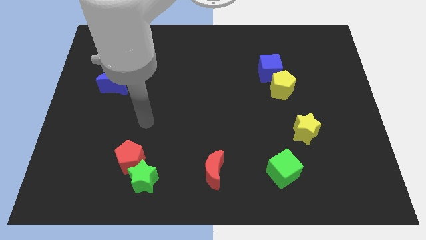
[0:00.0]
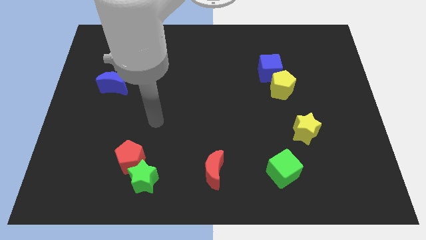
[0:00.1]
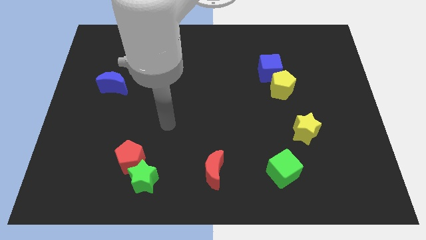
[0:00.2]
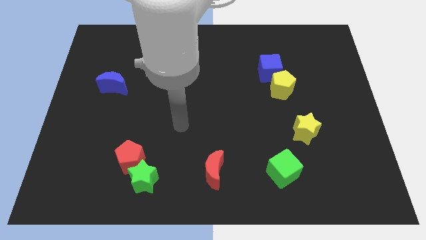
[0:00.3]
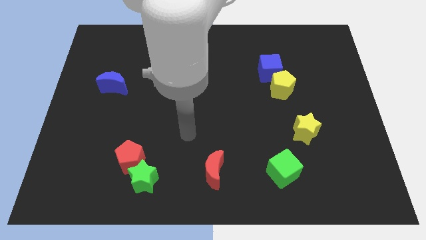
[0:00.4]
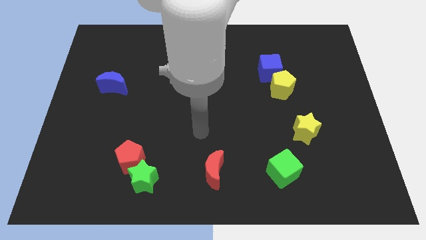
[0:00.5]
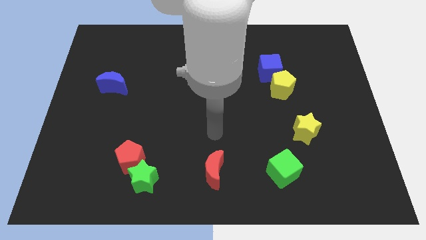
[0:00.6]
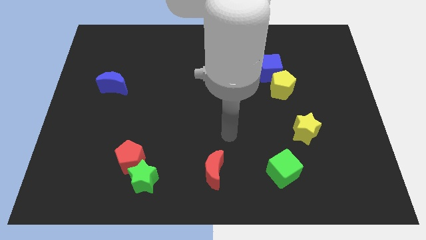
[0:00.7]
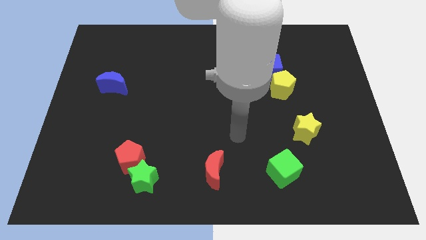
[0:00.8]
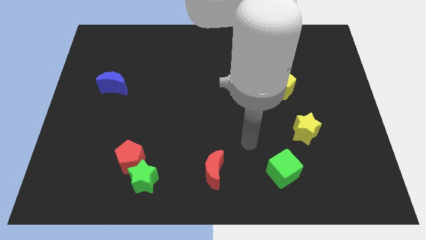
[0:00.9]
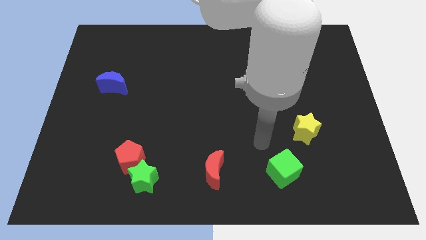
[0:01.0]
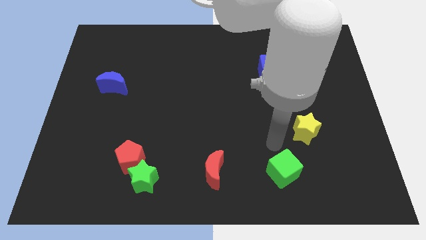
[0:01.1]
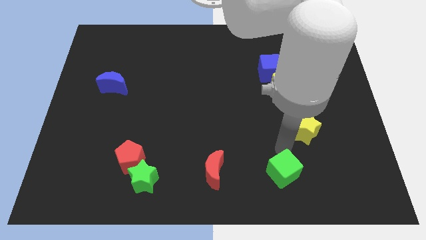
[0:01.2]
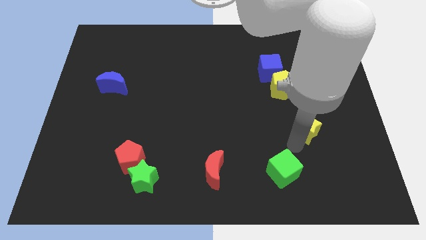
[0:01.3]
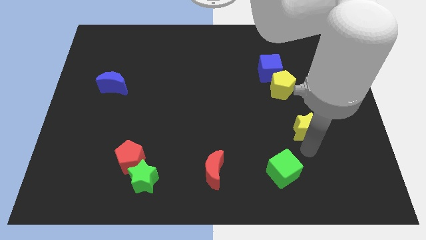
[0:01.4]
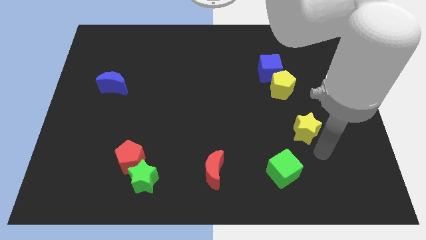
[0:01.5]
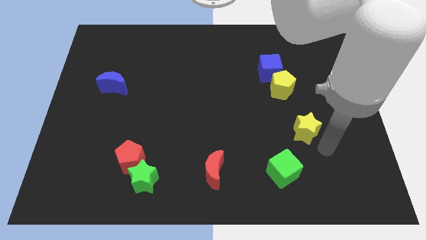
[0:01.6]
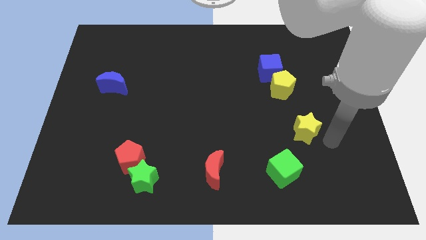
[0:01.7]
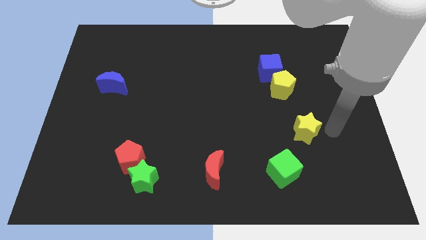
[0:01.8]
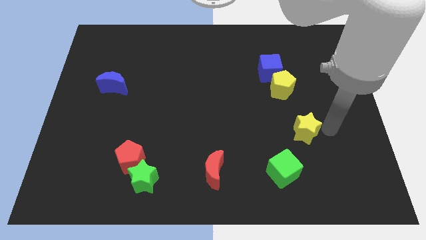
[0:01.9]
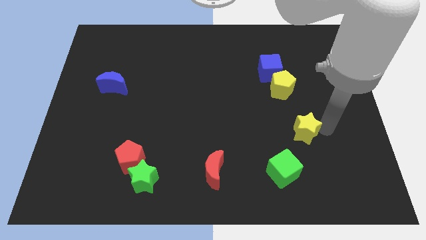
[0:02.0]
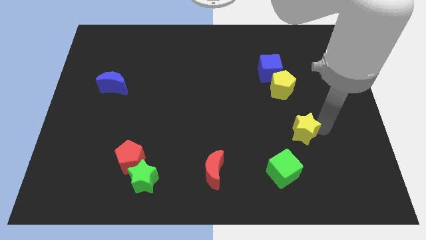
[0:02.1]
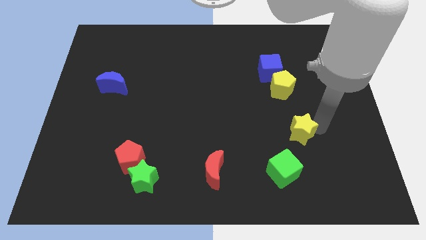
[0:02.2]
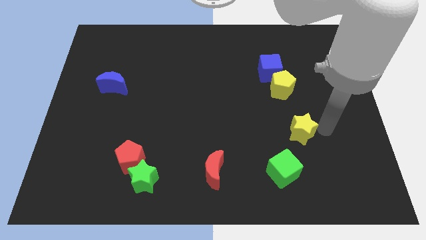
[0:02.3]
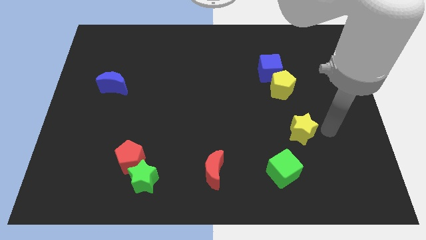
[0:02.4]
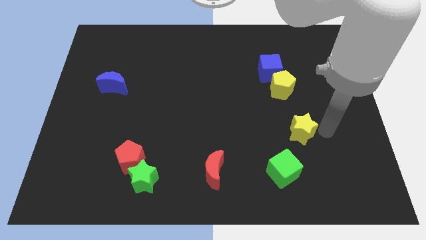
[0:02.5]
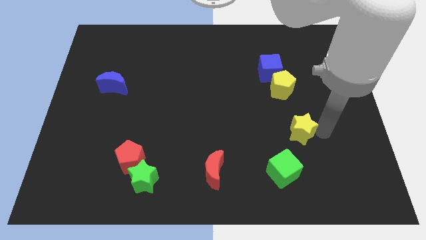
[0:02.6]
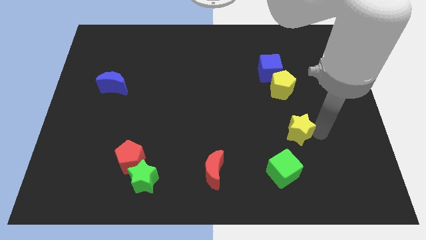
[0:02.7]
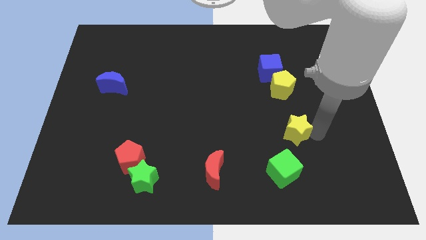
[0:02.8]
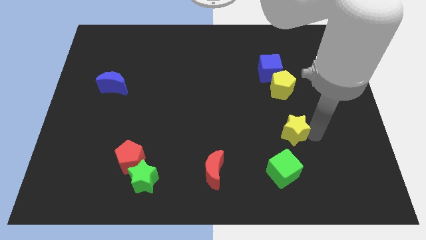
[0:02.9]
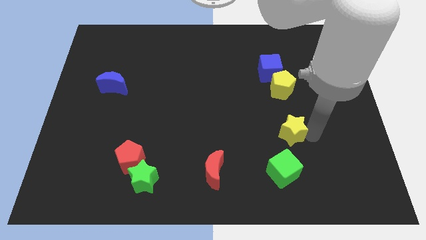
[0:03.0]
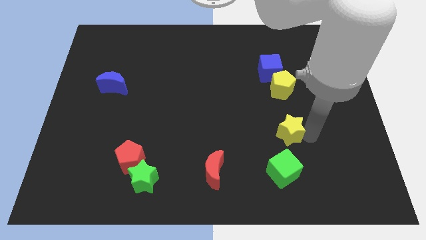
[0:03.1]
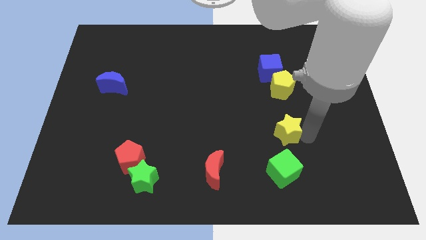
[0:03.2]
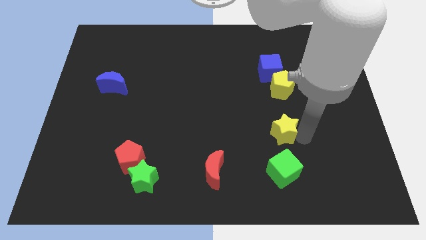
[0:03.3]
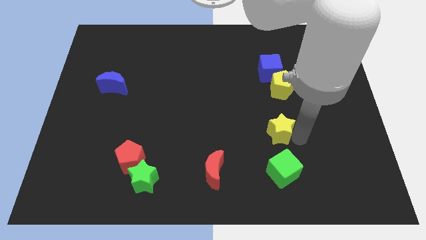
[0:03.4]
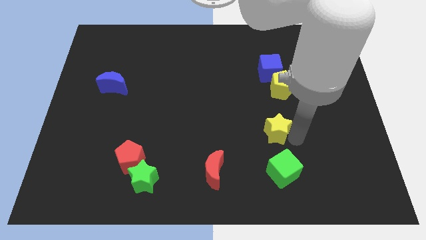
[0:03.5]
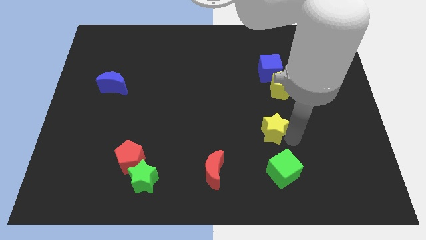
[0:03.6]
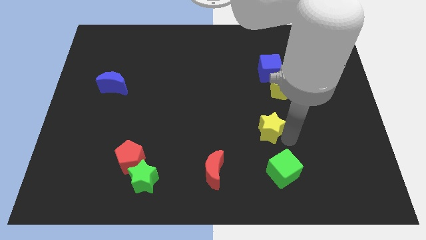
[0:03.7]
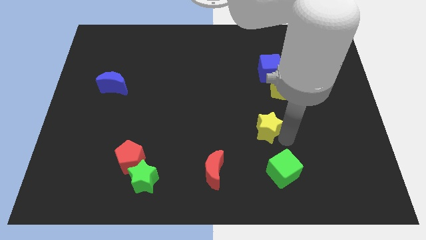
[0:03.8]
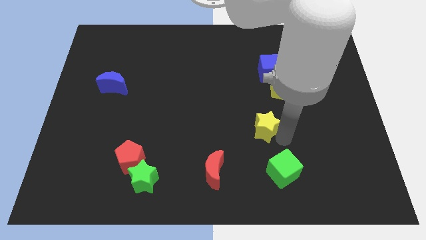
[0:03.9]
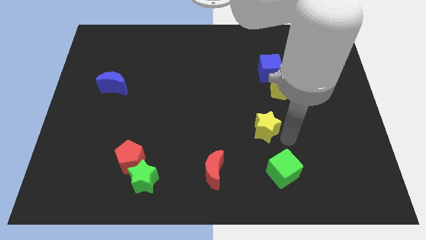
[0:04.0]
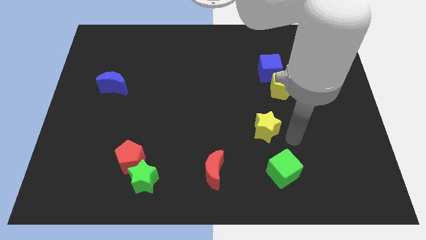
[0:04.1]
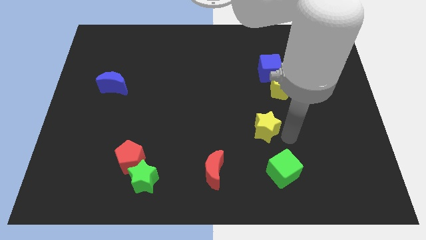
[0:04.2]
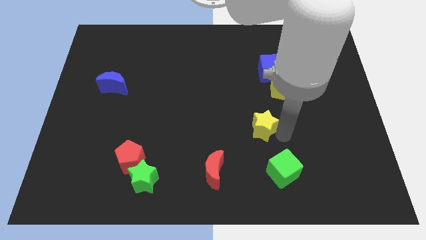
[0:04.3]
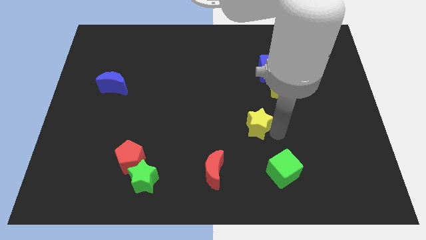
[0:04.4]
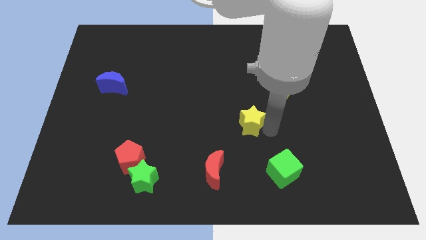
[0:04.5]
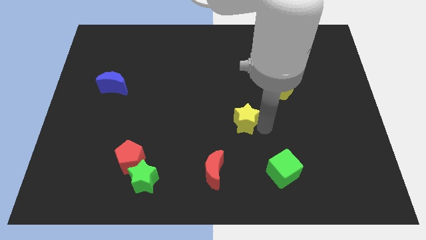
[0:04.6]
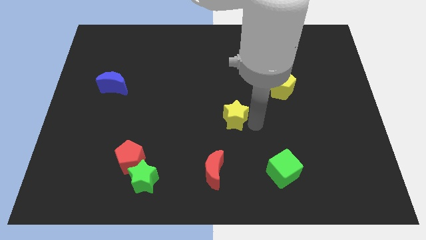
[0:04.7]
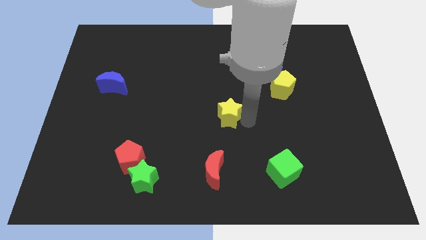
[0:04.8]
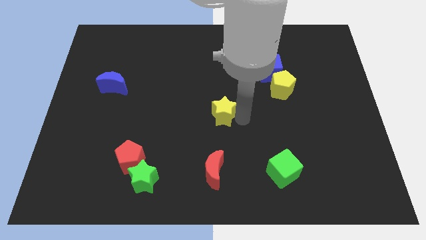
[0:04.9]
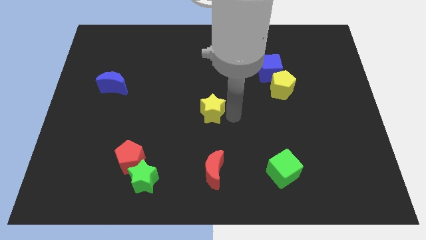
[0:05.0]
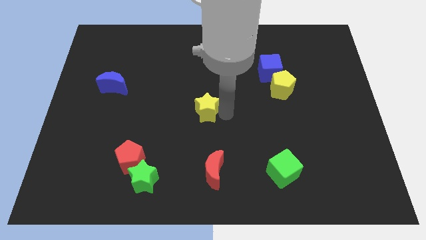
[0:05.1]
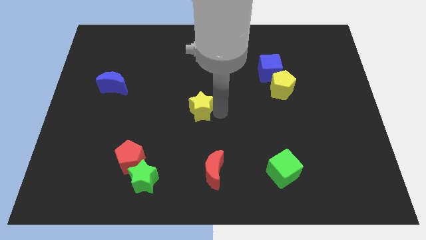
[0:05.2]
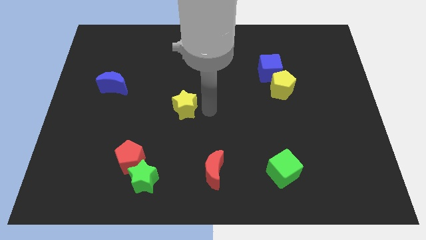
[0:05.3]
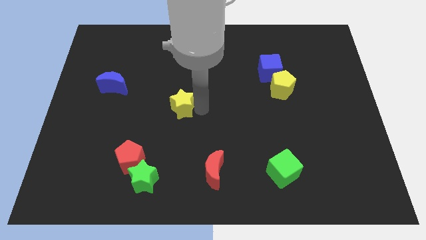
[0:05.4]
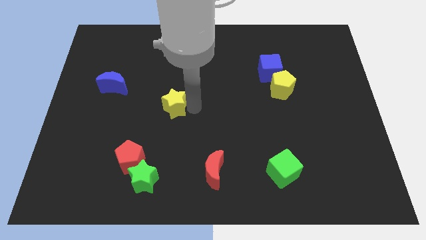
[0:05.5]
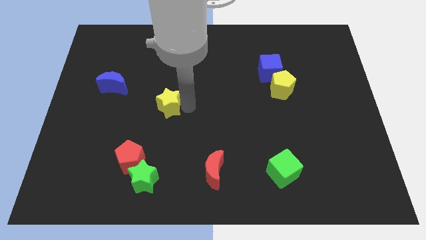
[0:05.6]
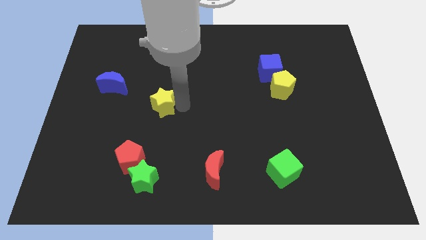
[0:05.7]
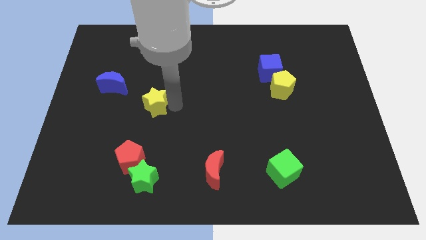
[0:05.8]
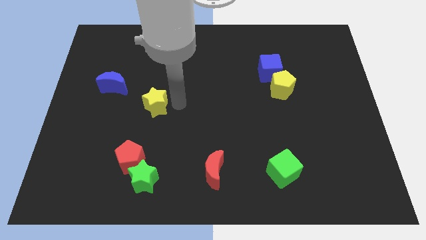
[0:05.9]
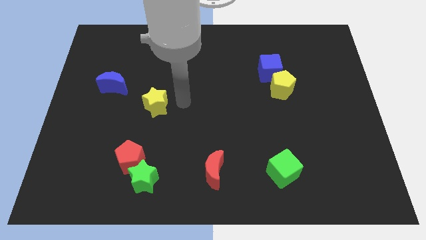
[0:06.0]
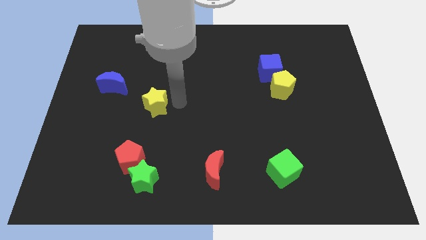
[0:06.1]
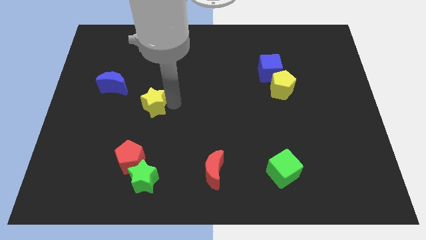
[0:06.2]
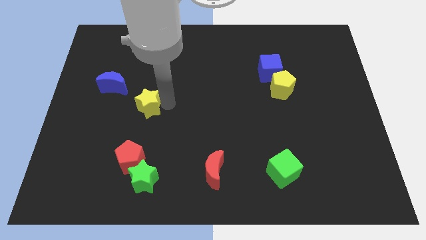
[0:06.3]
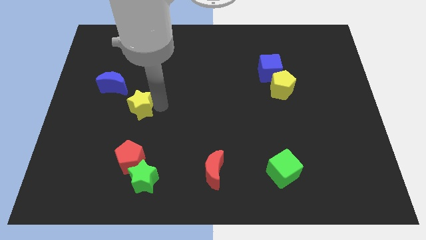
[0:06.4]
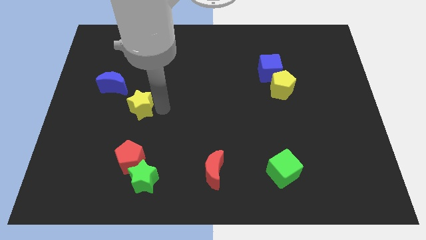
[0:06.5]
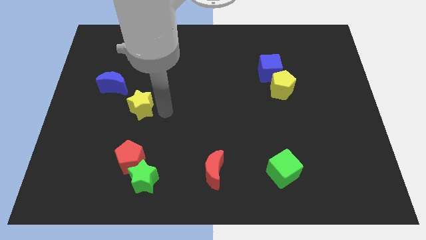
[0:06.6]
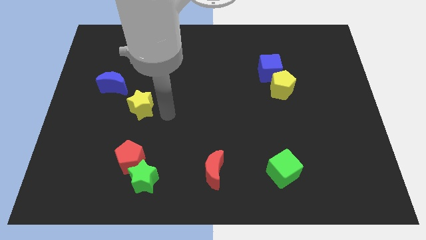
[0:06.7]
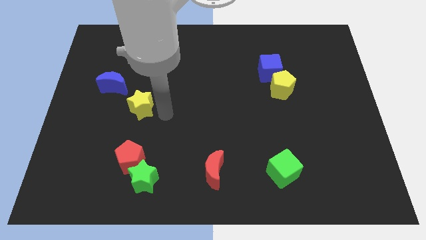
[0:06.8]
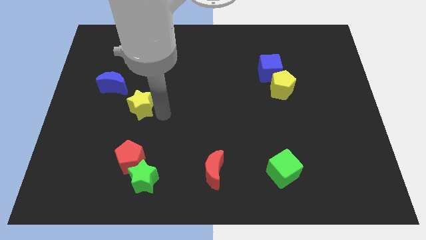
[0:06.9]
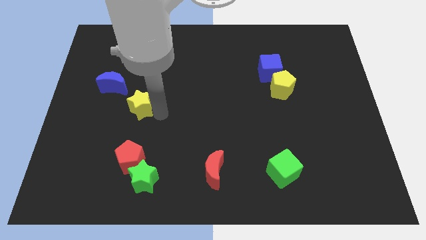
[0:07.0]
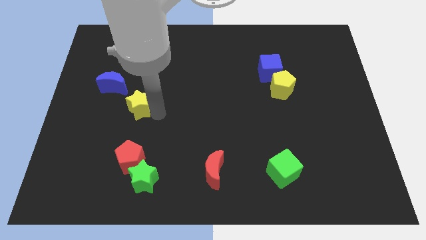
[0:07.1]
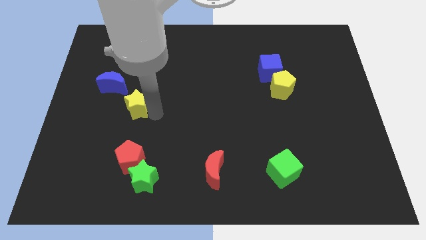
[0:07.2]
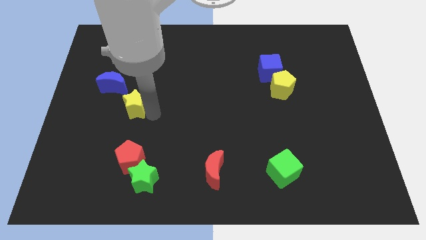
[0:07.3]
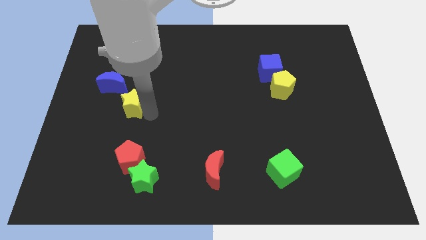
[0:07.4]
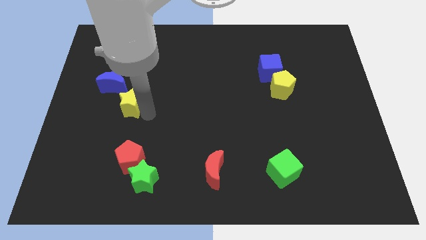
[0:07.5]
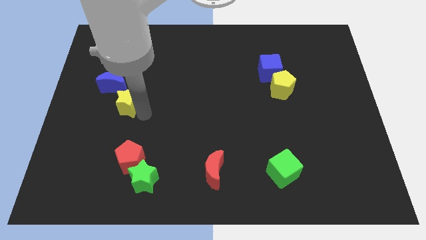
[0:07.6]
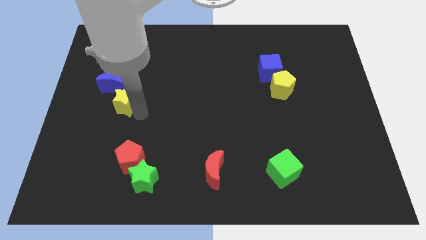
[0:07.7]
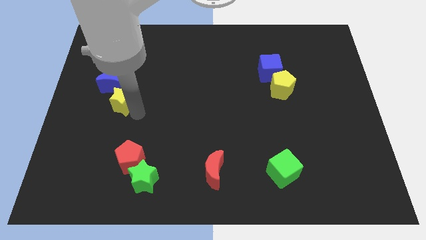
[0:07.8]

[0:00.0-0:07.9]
push the yellow star close to the blue moon
